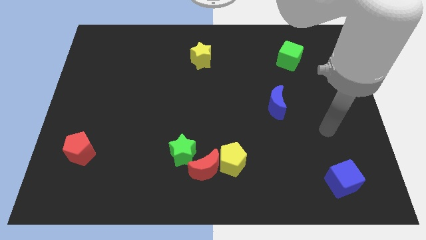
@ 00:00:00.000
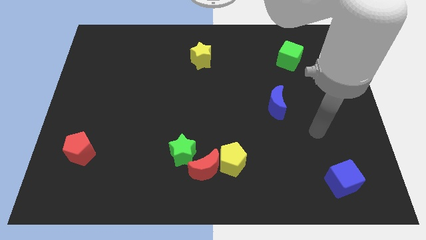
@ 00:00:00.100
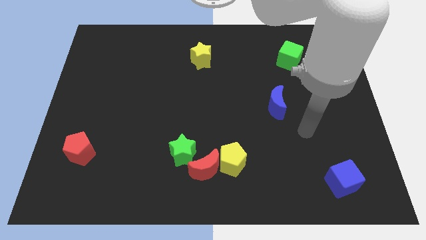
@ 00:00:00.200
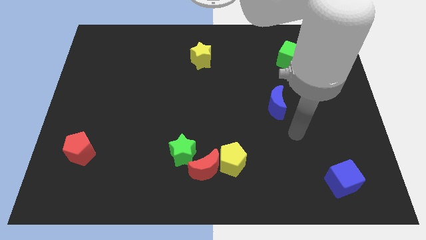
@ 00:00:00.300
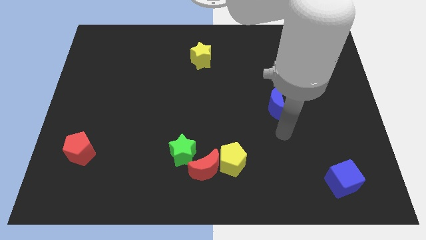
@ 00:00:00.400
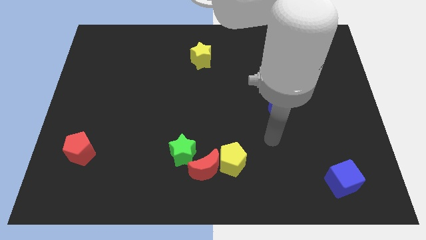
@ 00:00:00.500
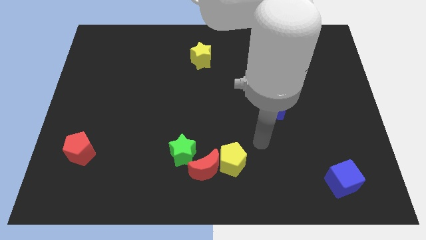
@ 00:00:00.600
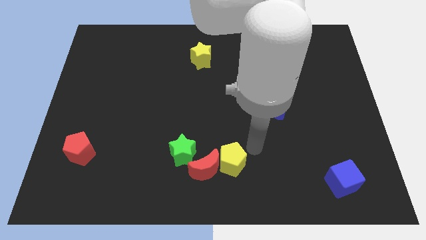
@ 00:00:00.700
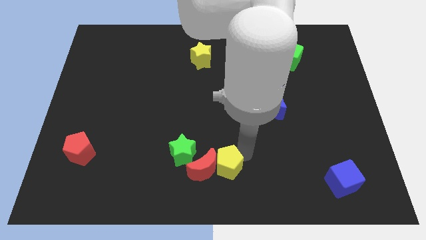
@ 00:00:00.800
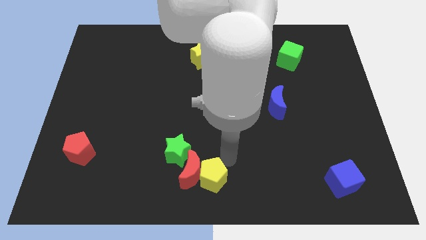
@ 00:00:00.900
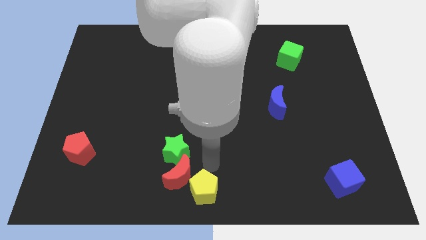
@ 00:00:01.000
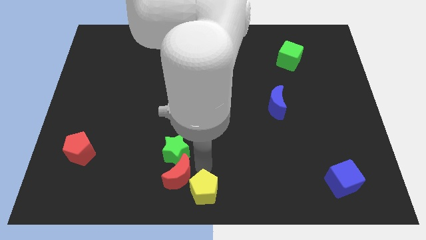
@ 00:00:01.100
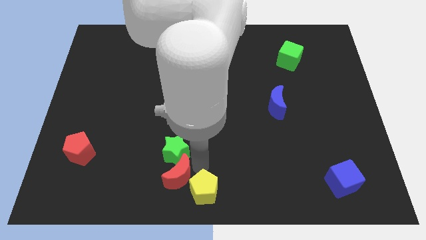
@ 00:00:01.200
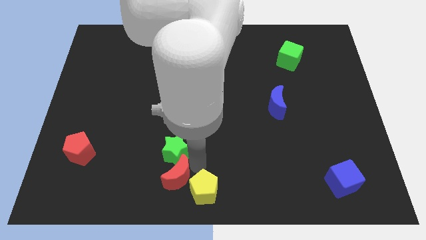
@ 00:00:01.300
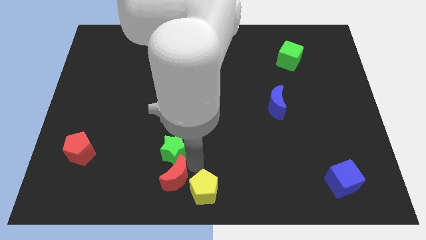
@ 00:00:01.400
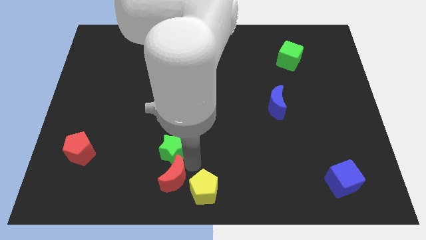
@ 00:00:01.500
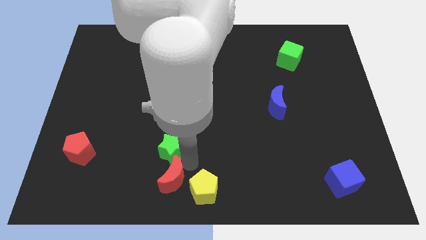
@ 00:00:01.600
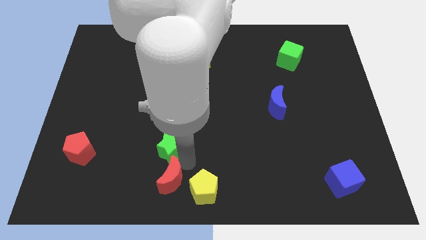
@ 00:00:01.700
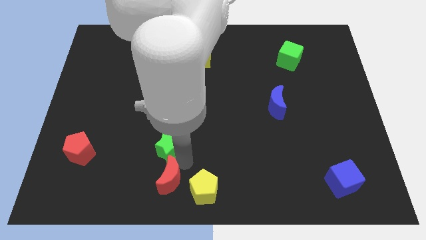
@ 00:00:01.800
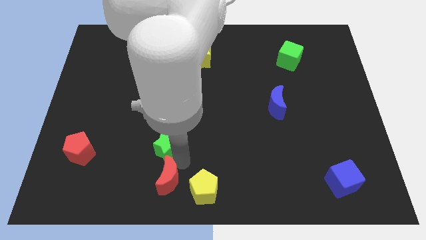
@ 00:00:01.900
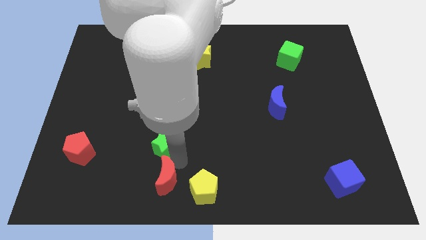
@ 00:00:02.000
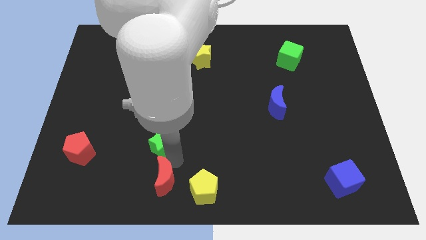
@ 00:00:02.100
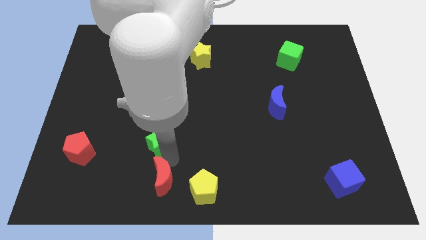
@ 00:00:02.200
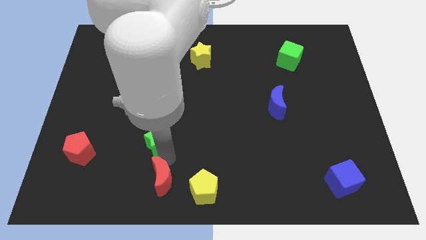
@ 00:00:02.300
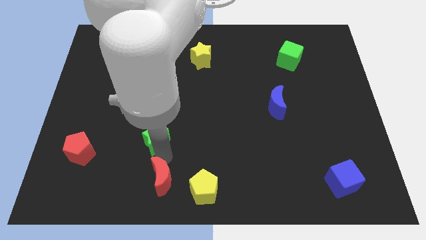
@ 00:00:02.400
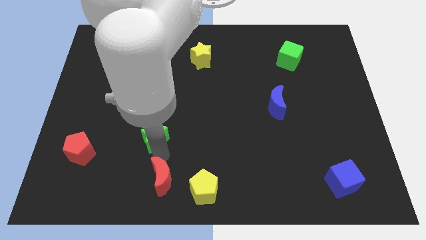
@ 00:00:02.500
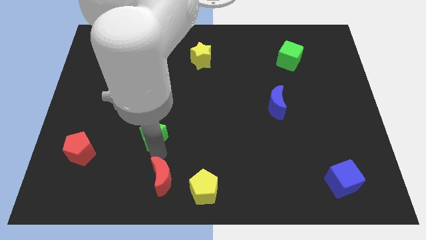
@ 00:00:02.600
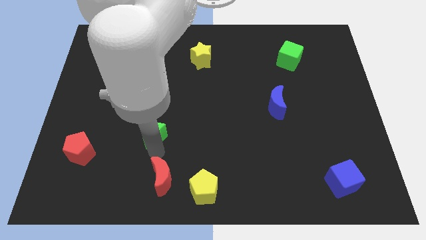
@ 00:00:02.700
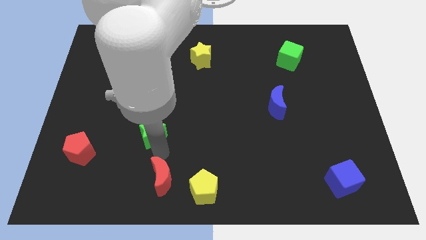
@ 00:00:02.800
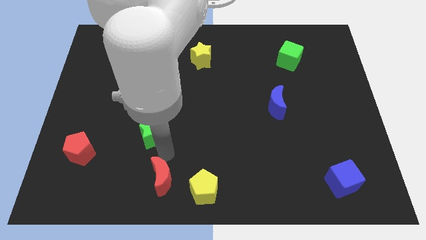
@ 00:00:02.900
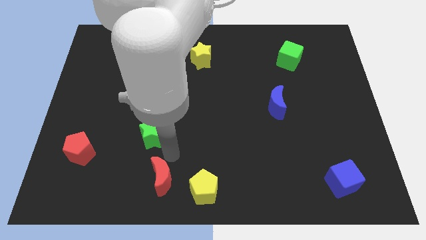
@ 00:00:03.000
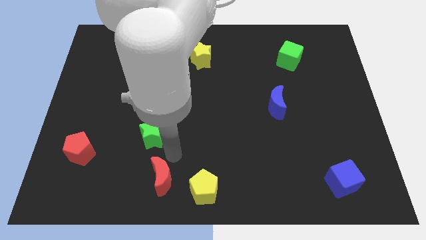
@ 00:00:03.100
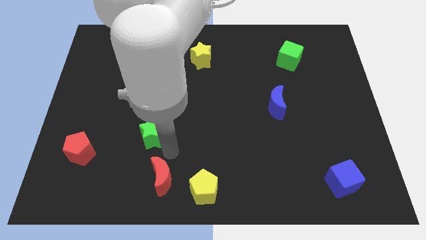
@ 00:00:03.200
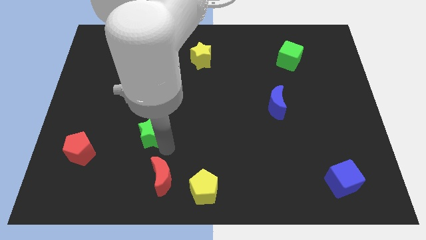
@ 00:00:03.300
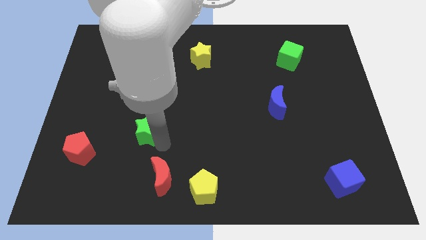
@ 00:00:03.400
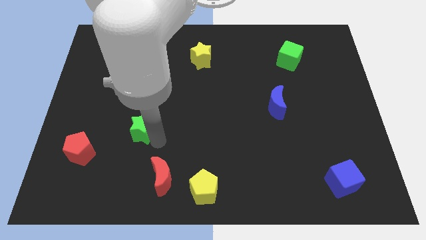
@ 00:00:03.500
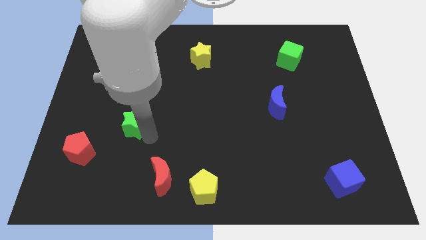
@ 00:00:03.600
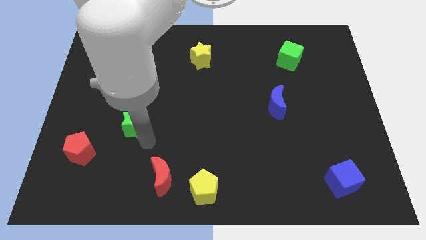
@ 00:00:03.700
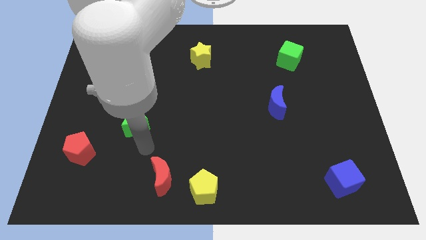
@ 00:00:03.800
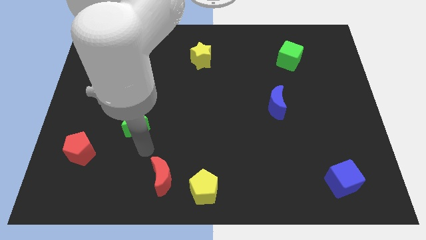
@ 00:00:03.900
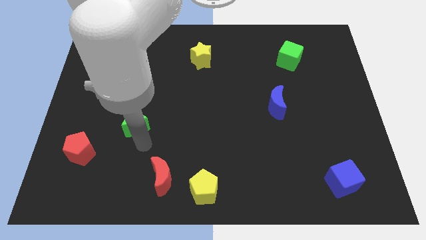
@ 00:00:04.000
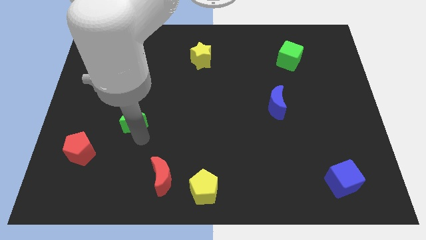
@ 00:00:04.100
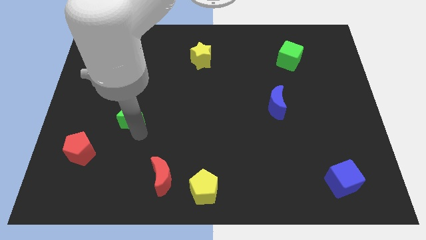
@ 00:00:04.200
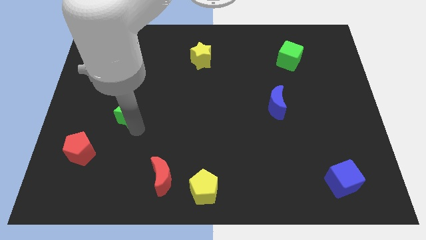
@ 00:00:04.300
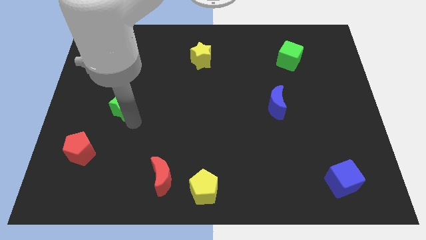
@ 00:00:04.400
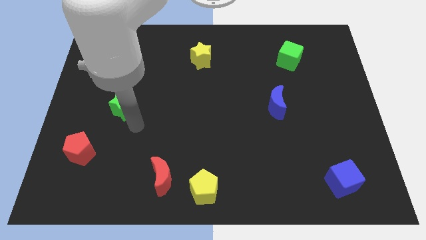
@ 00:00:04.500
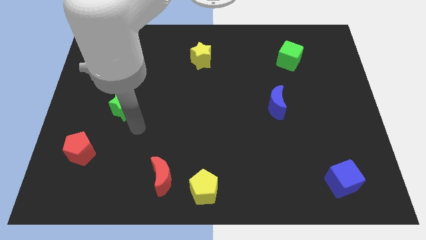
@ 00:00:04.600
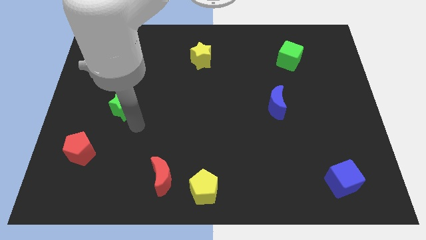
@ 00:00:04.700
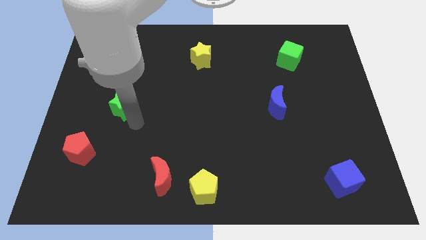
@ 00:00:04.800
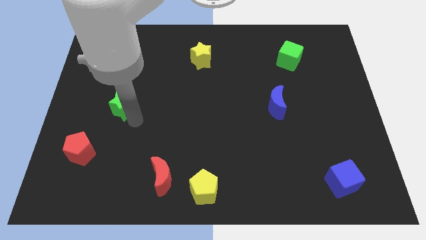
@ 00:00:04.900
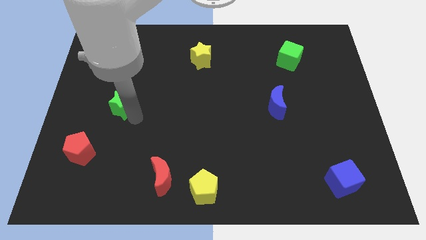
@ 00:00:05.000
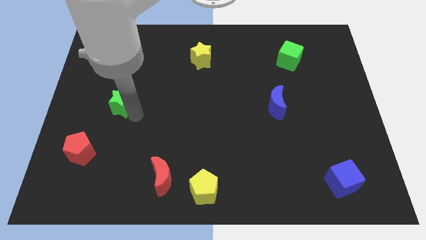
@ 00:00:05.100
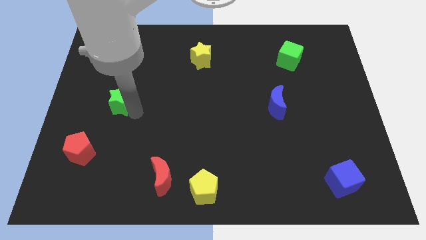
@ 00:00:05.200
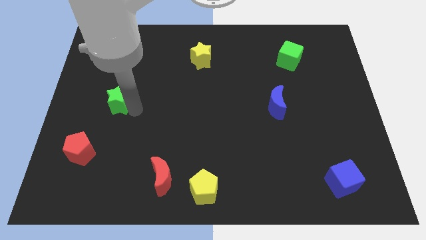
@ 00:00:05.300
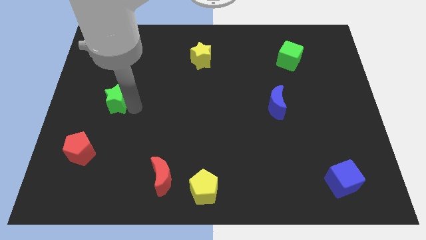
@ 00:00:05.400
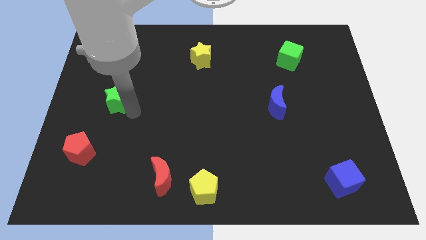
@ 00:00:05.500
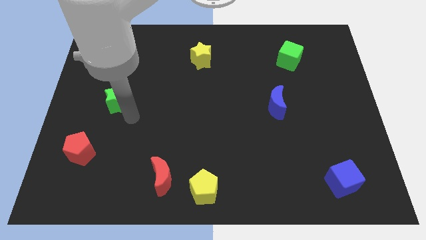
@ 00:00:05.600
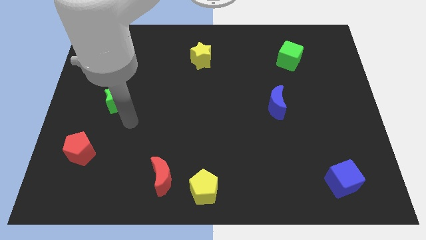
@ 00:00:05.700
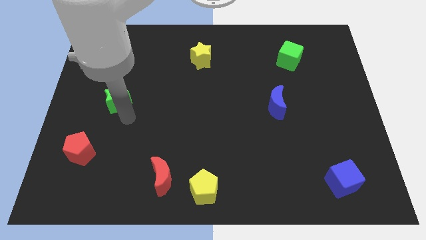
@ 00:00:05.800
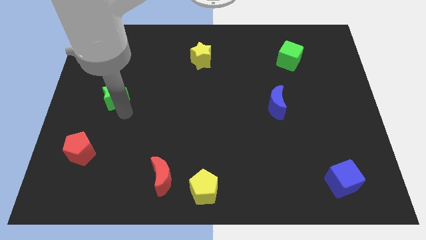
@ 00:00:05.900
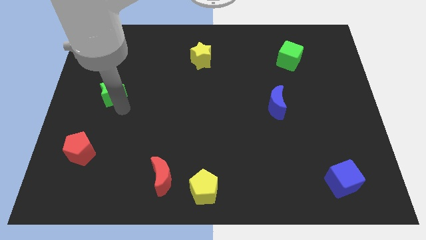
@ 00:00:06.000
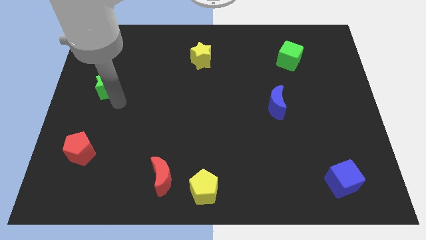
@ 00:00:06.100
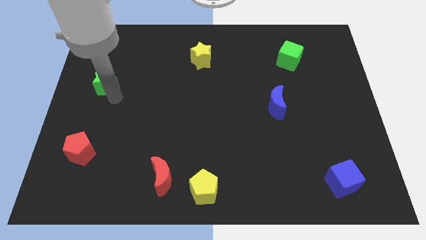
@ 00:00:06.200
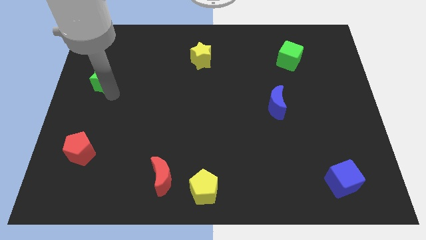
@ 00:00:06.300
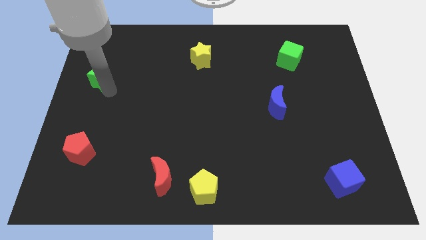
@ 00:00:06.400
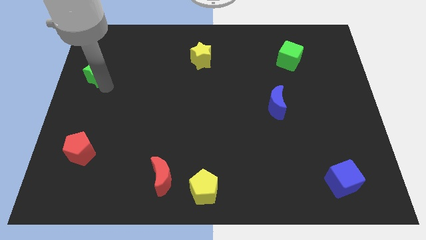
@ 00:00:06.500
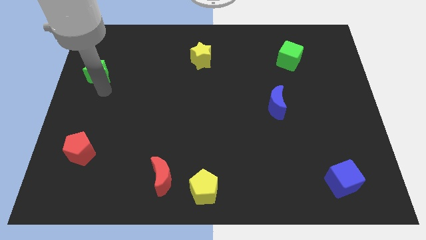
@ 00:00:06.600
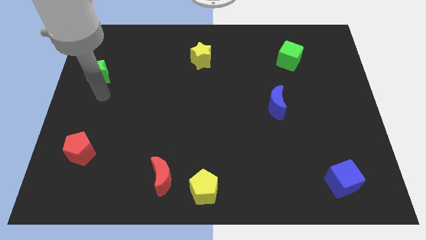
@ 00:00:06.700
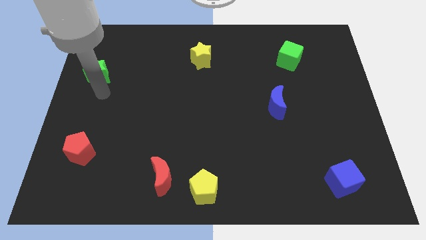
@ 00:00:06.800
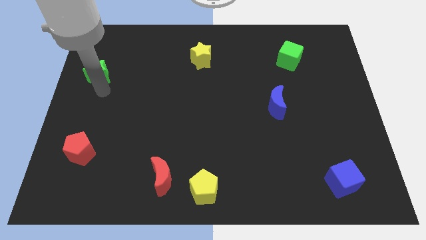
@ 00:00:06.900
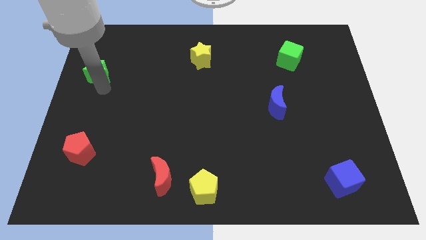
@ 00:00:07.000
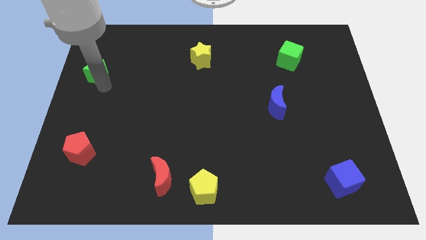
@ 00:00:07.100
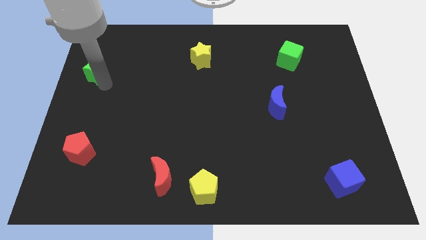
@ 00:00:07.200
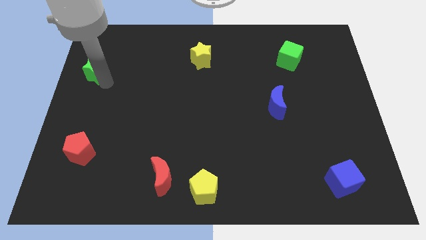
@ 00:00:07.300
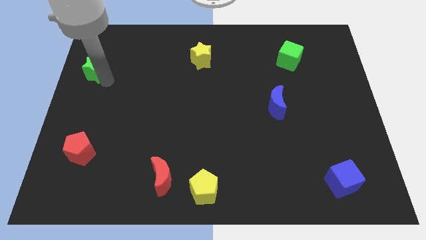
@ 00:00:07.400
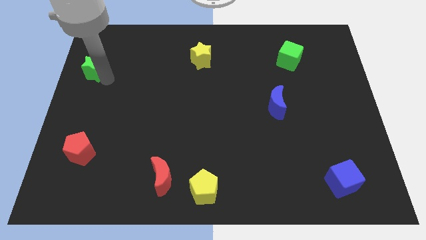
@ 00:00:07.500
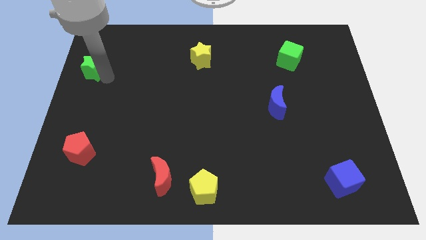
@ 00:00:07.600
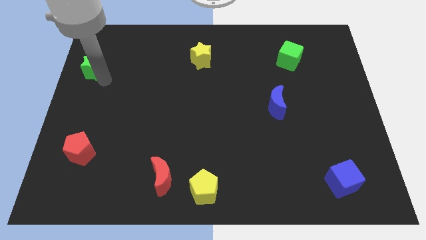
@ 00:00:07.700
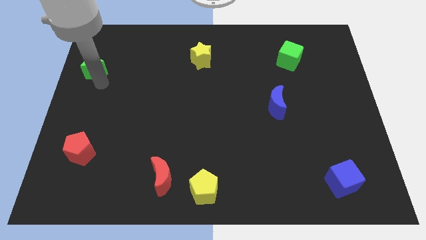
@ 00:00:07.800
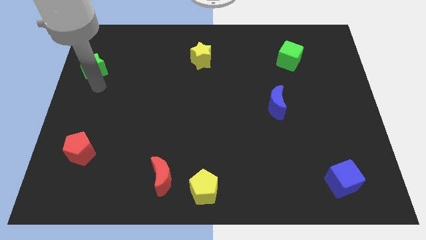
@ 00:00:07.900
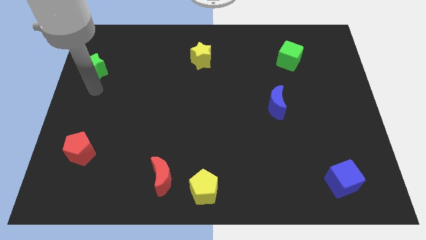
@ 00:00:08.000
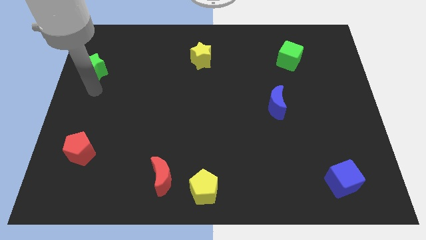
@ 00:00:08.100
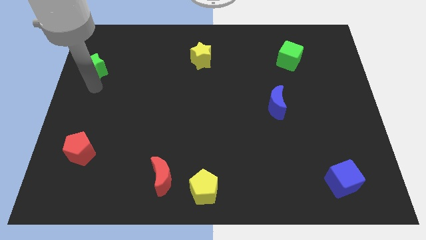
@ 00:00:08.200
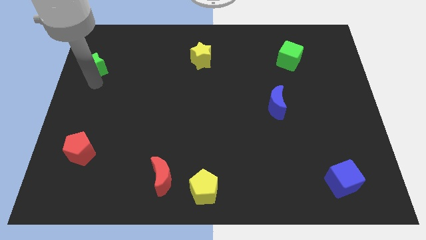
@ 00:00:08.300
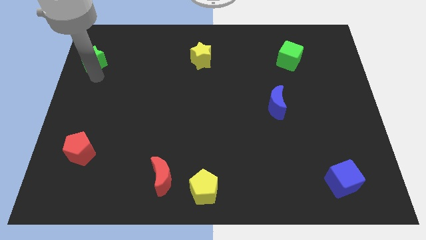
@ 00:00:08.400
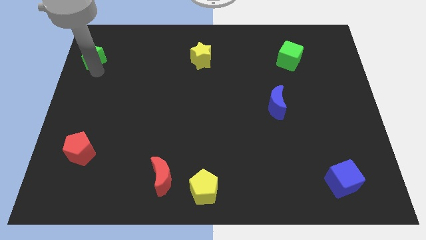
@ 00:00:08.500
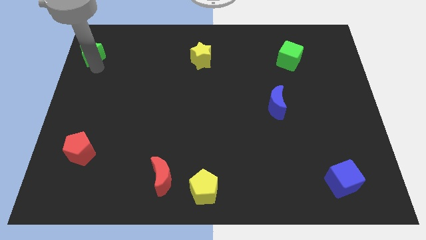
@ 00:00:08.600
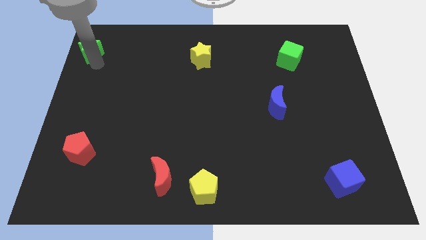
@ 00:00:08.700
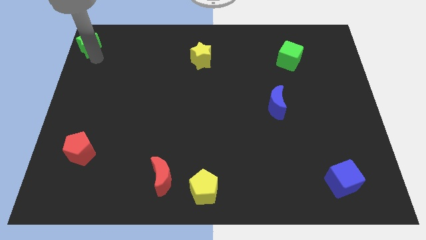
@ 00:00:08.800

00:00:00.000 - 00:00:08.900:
push the green star to the top left
